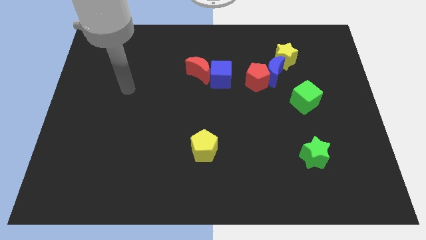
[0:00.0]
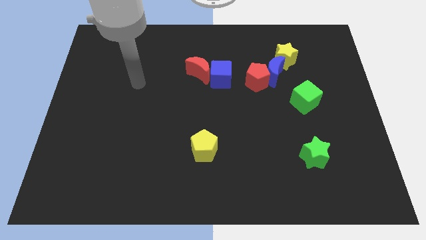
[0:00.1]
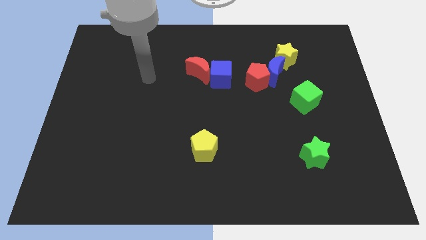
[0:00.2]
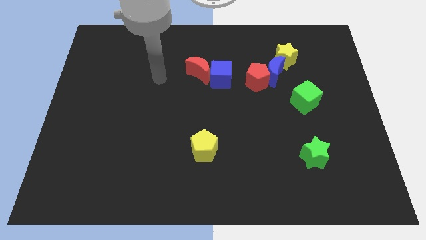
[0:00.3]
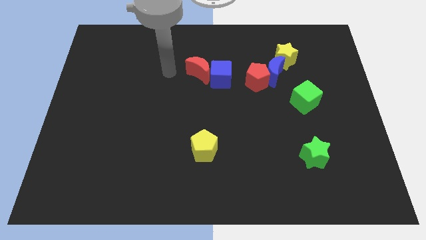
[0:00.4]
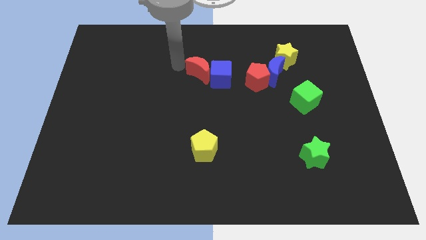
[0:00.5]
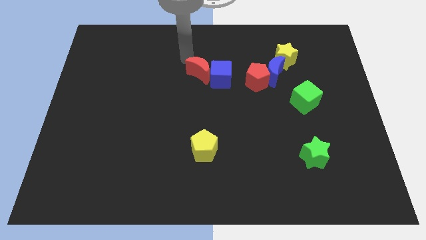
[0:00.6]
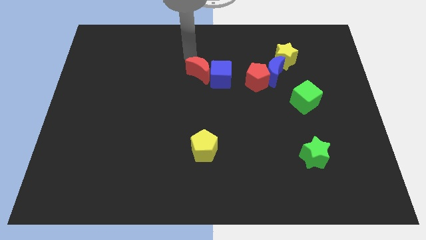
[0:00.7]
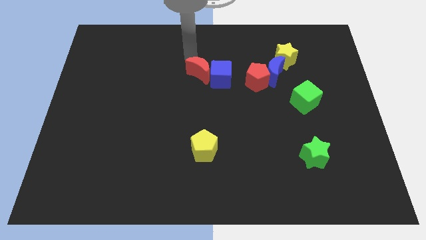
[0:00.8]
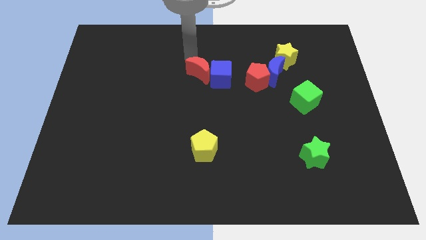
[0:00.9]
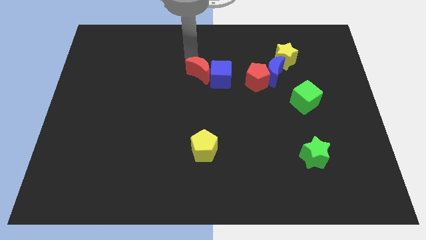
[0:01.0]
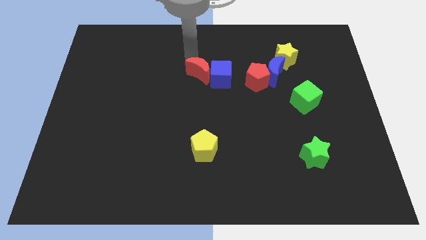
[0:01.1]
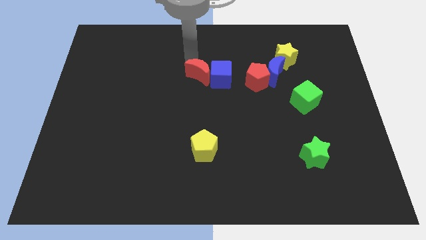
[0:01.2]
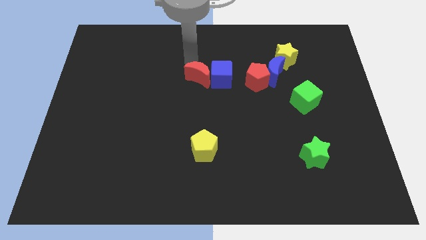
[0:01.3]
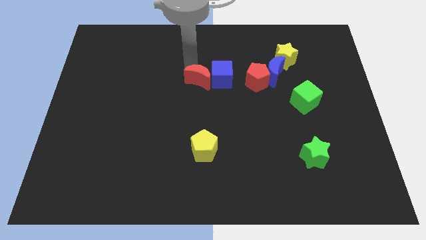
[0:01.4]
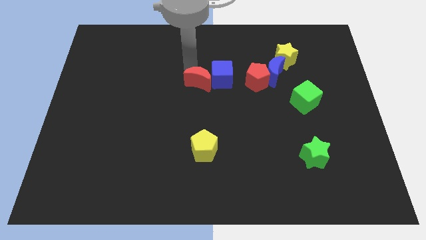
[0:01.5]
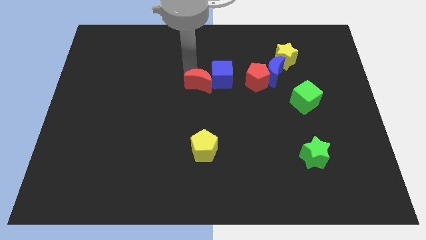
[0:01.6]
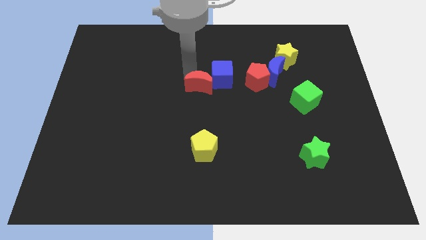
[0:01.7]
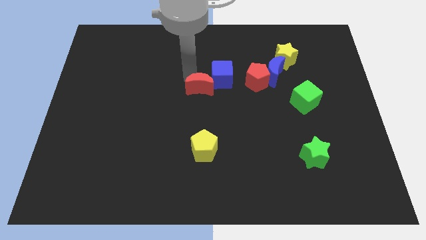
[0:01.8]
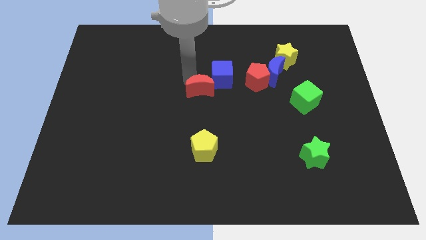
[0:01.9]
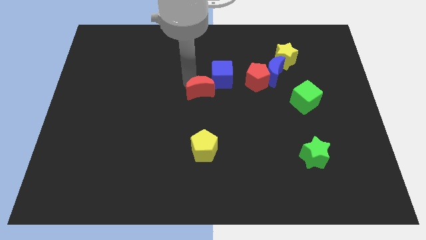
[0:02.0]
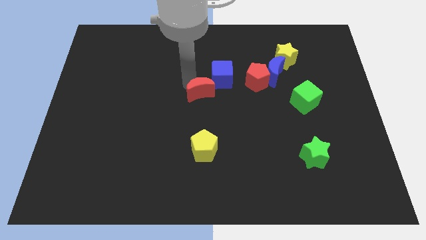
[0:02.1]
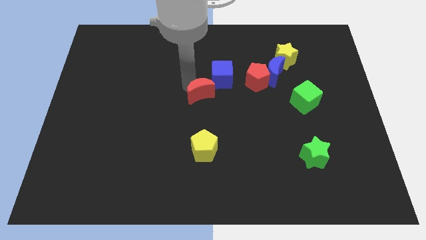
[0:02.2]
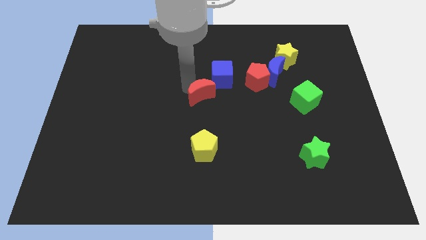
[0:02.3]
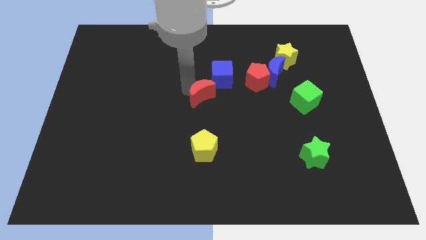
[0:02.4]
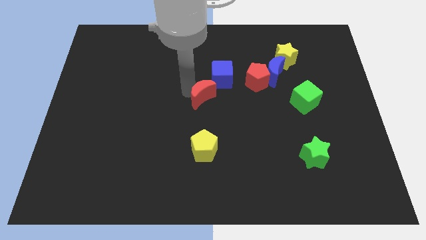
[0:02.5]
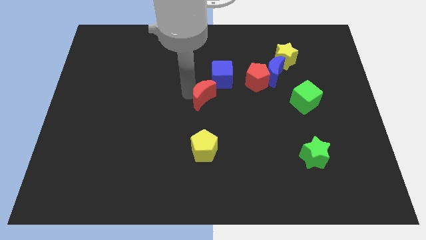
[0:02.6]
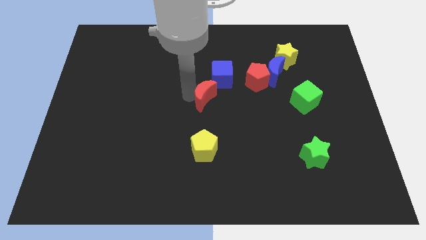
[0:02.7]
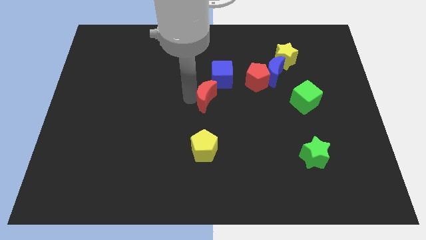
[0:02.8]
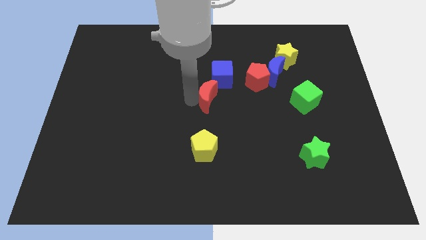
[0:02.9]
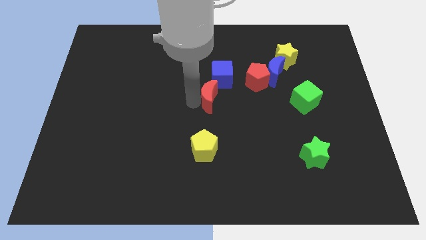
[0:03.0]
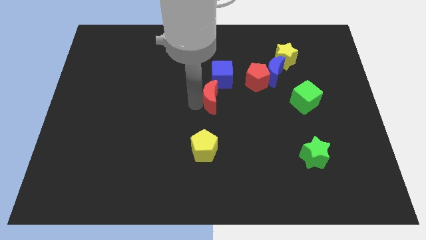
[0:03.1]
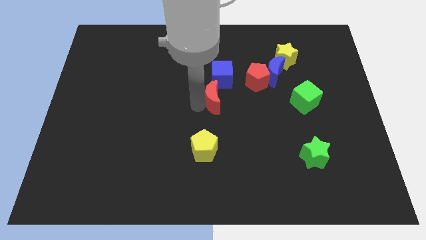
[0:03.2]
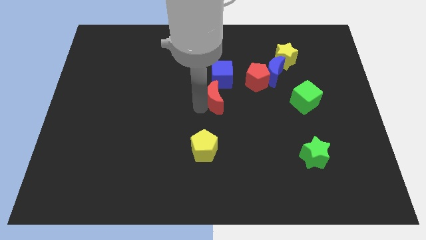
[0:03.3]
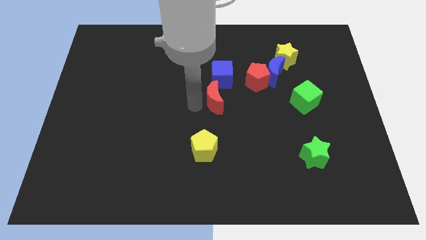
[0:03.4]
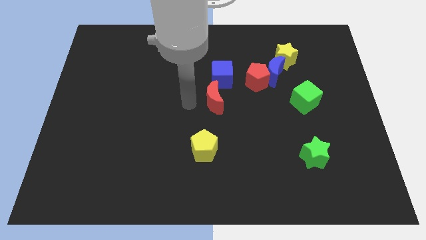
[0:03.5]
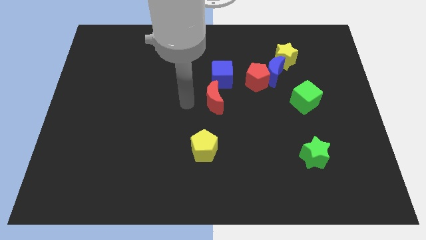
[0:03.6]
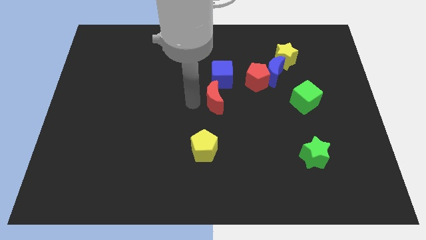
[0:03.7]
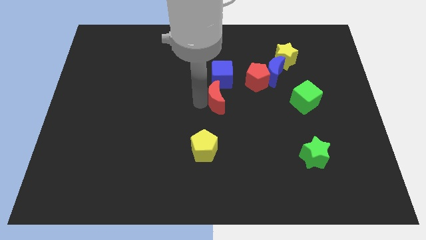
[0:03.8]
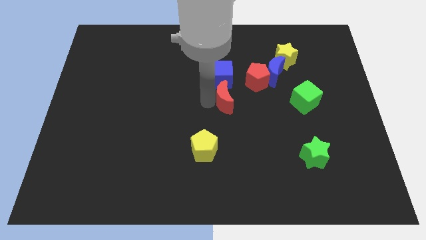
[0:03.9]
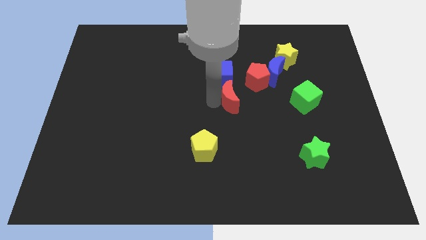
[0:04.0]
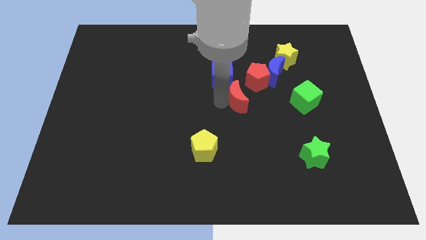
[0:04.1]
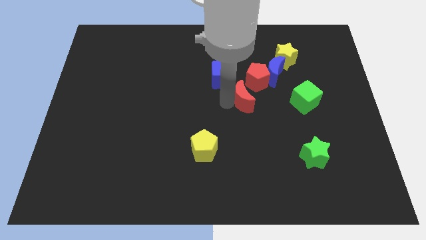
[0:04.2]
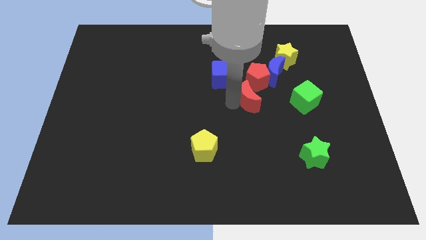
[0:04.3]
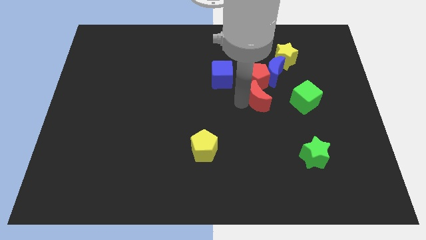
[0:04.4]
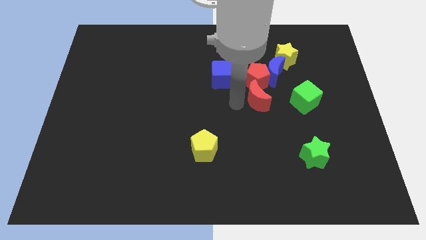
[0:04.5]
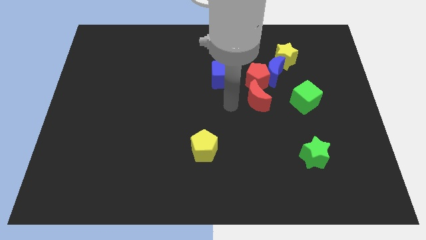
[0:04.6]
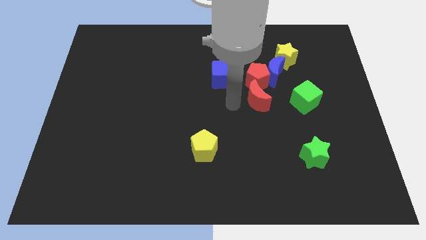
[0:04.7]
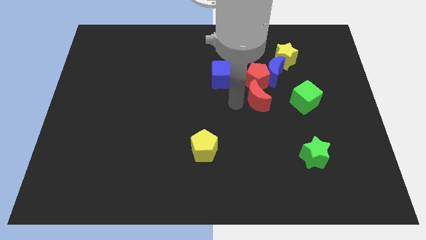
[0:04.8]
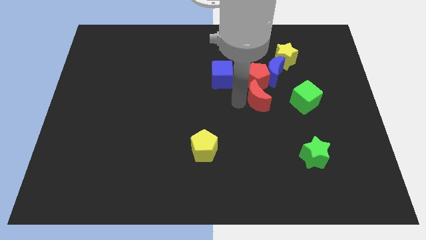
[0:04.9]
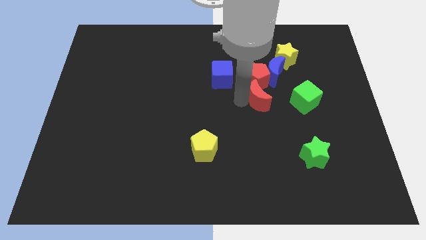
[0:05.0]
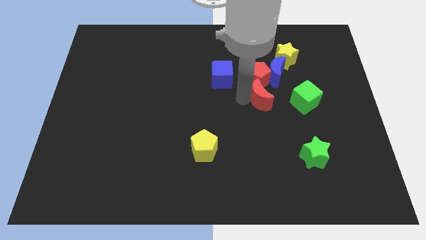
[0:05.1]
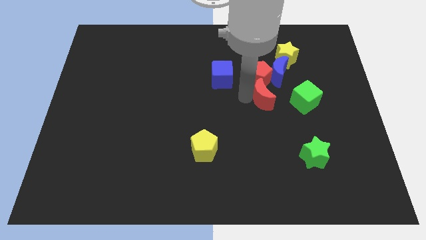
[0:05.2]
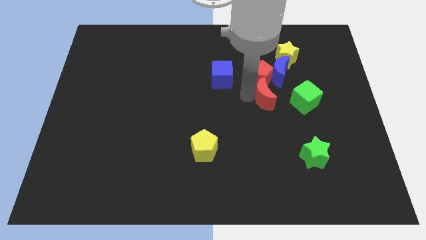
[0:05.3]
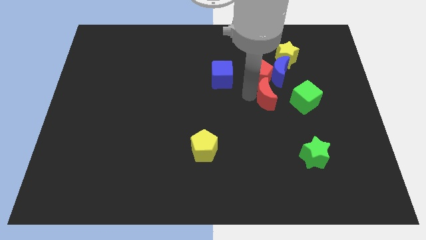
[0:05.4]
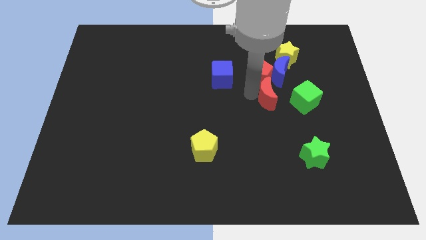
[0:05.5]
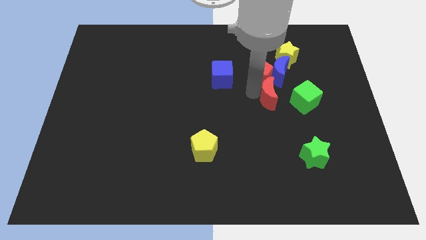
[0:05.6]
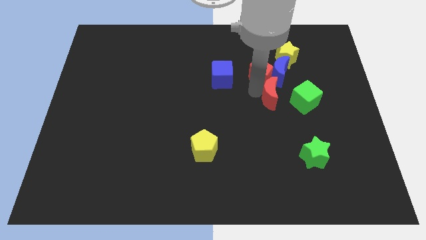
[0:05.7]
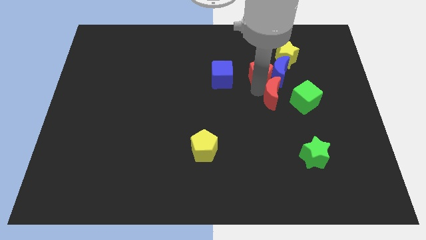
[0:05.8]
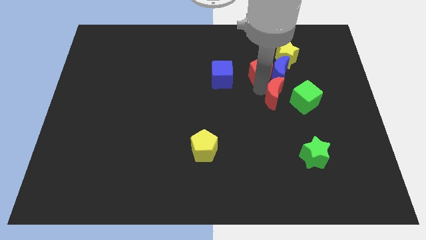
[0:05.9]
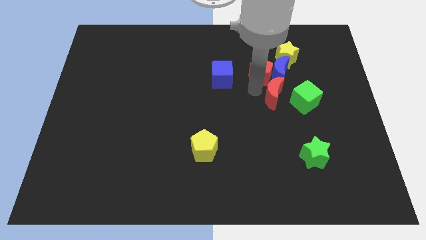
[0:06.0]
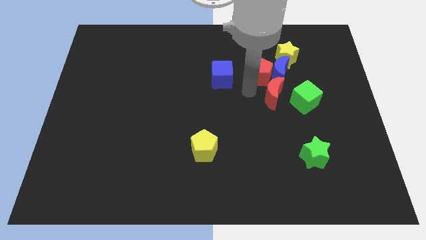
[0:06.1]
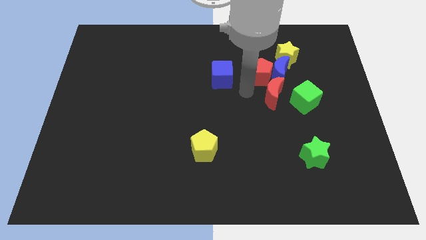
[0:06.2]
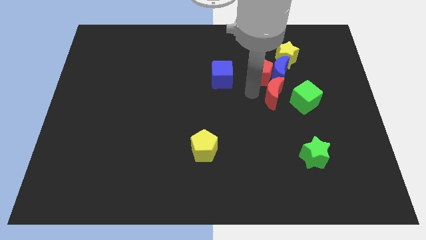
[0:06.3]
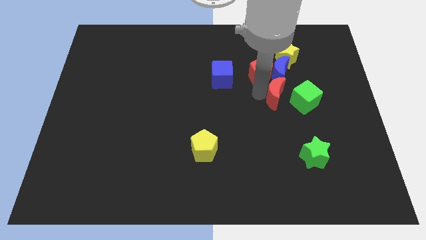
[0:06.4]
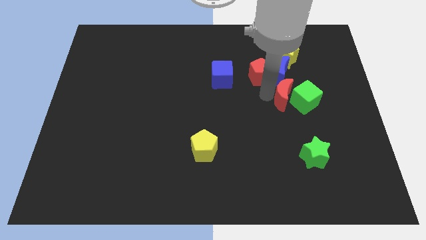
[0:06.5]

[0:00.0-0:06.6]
move the red moon close to the green cube

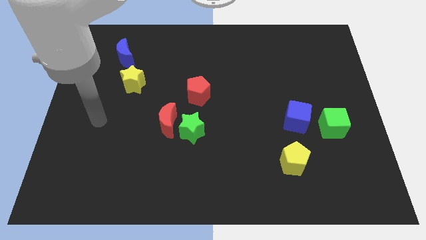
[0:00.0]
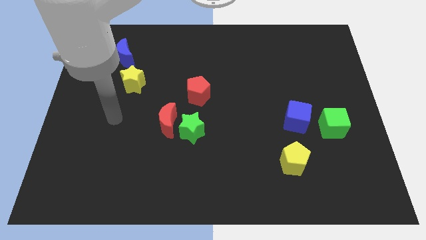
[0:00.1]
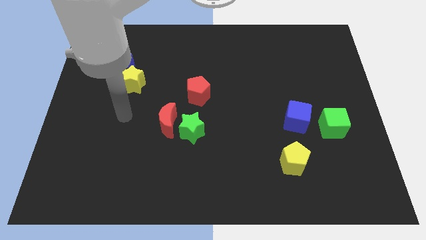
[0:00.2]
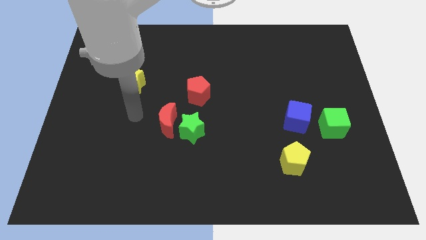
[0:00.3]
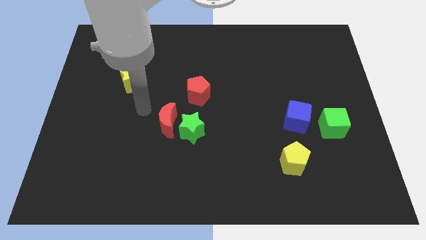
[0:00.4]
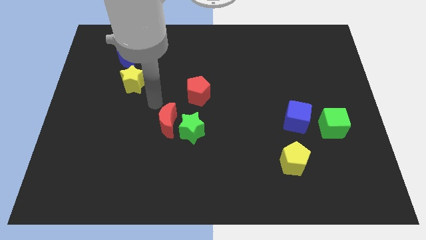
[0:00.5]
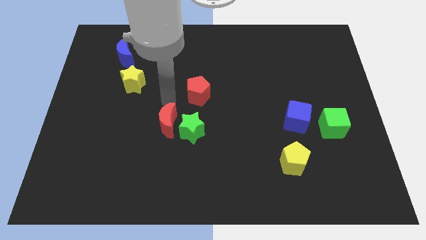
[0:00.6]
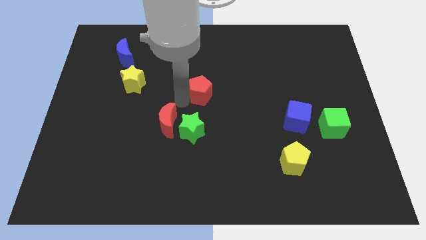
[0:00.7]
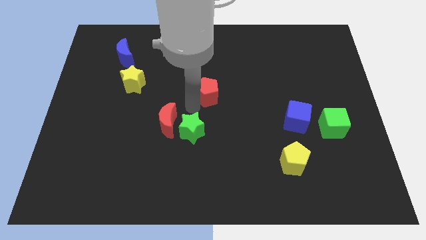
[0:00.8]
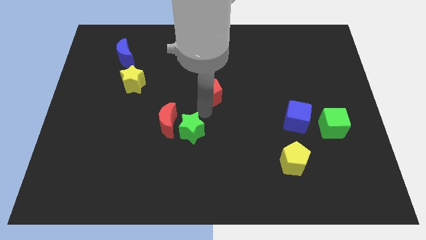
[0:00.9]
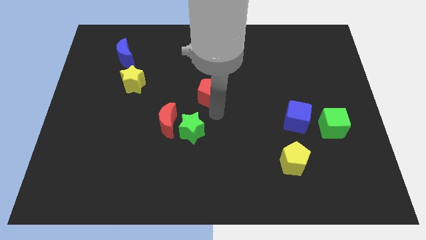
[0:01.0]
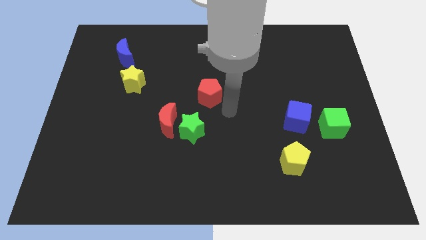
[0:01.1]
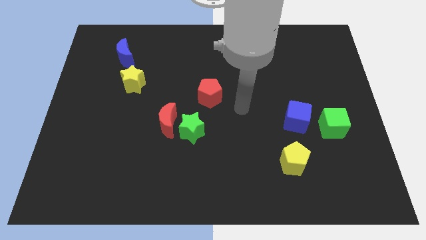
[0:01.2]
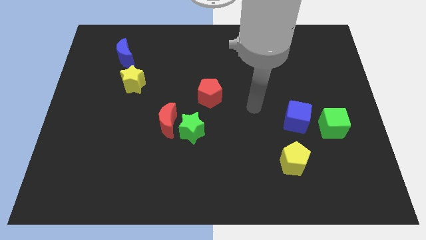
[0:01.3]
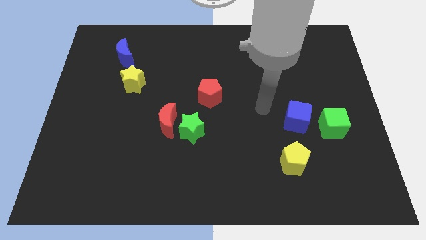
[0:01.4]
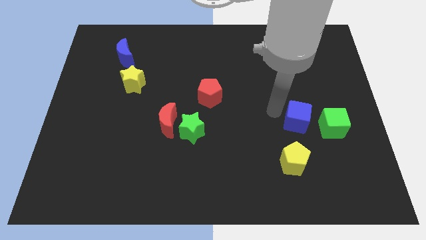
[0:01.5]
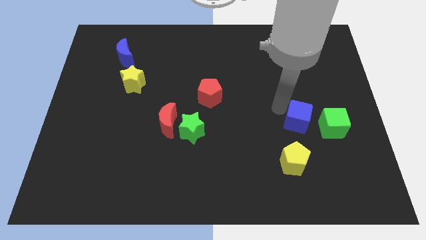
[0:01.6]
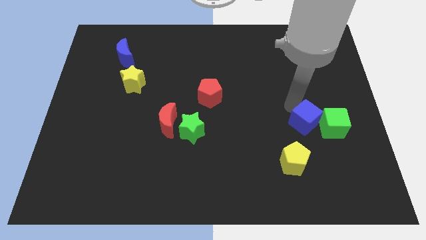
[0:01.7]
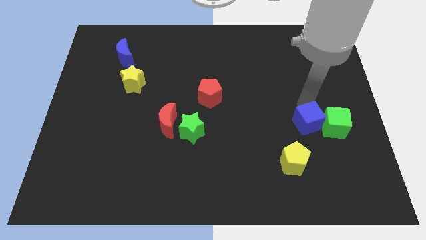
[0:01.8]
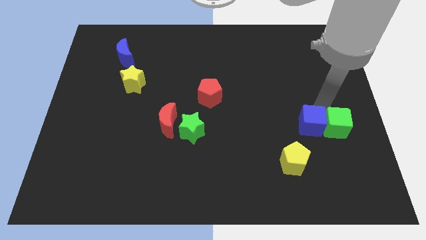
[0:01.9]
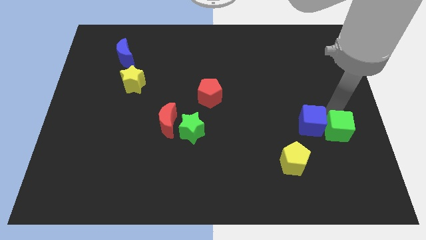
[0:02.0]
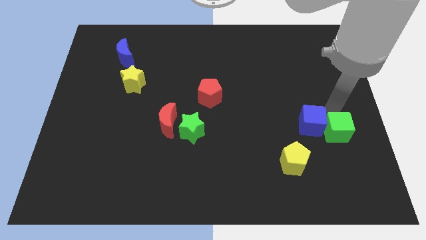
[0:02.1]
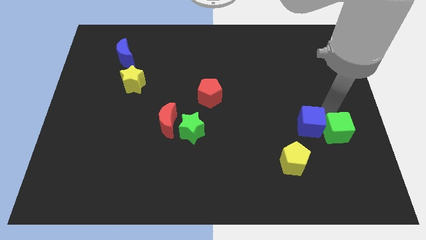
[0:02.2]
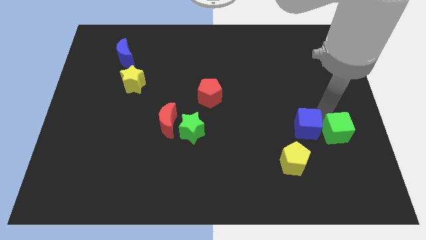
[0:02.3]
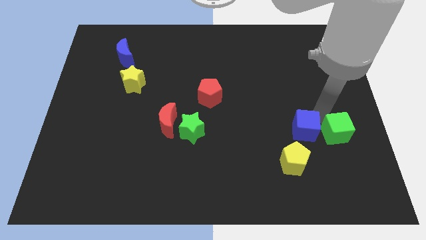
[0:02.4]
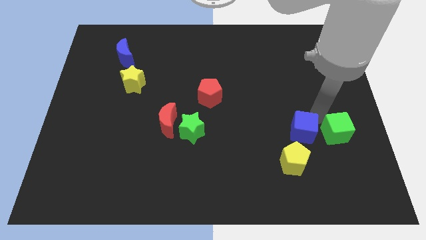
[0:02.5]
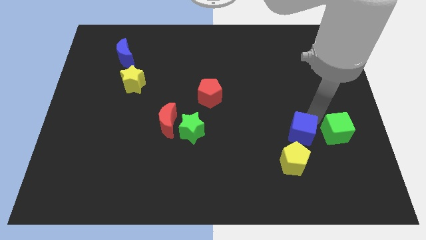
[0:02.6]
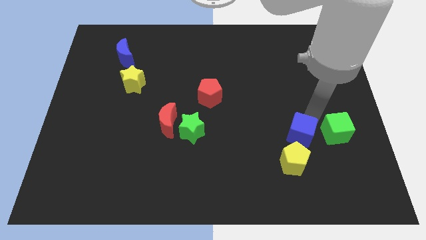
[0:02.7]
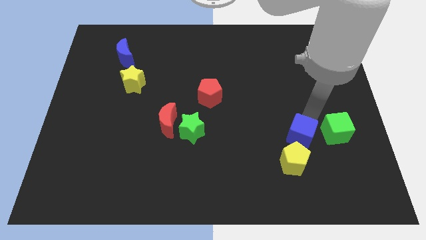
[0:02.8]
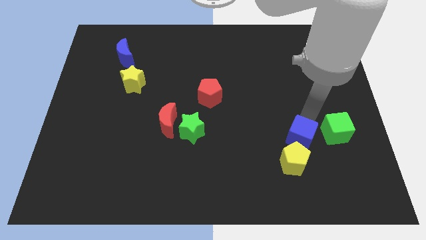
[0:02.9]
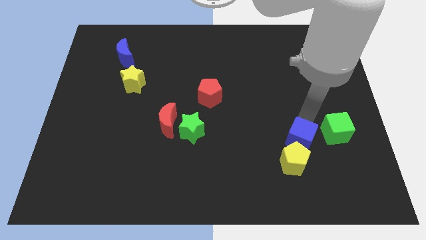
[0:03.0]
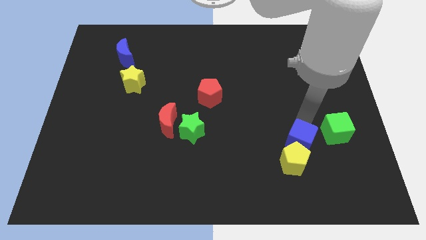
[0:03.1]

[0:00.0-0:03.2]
put the blue cube to the yellow pentagon
